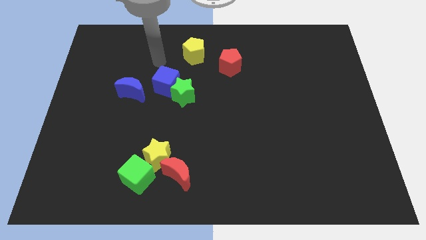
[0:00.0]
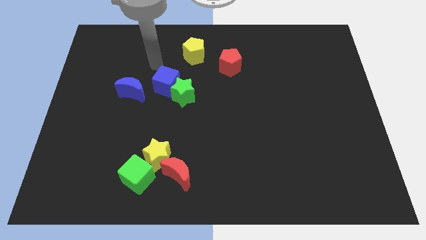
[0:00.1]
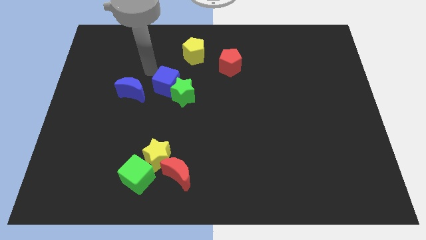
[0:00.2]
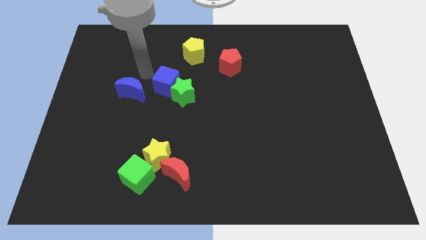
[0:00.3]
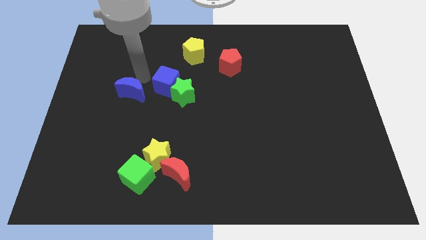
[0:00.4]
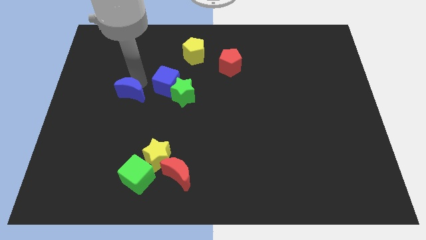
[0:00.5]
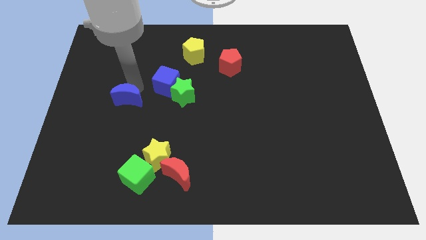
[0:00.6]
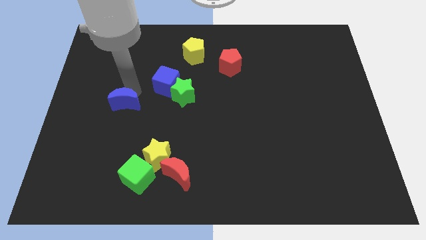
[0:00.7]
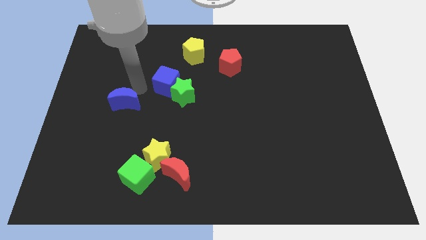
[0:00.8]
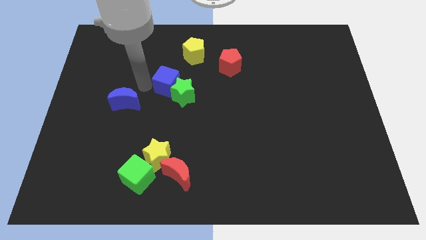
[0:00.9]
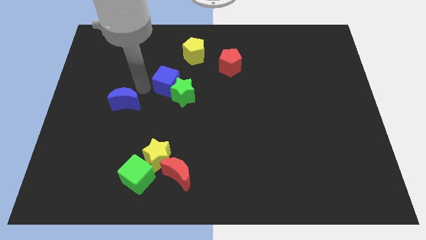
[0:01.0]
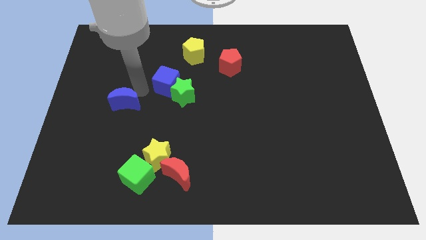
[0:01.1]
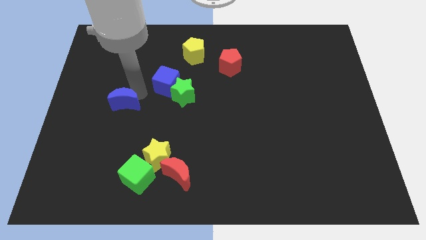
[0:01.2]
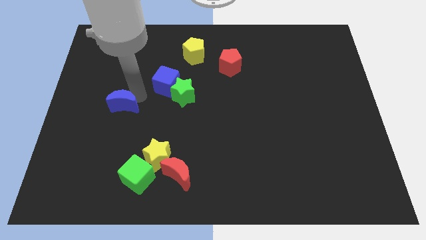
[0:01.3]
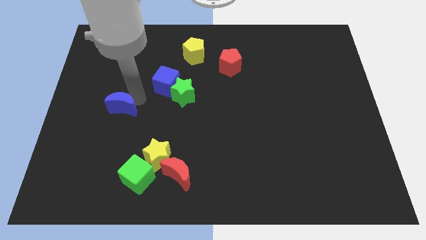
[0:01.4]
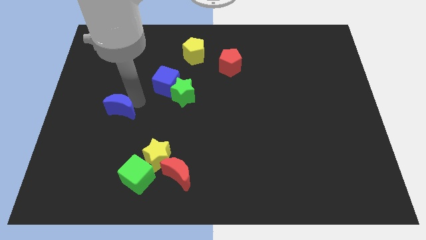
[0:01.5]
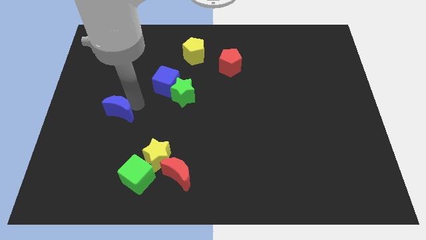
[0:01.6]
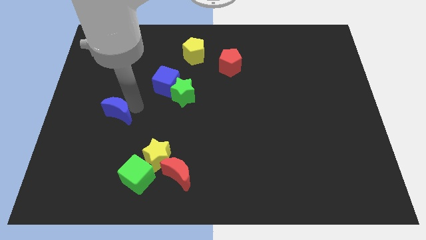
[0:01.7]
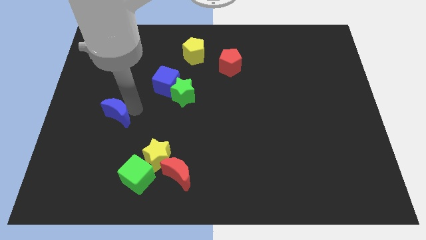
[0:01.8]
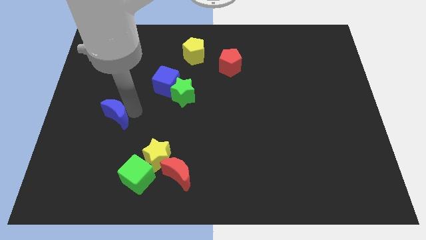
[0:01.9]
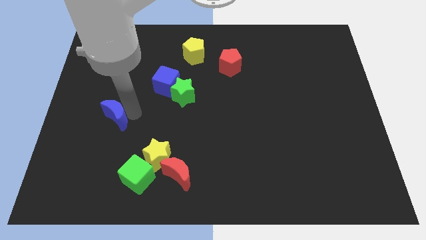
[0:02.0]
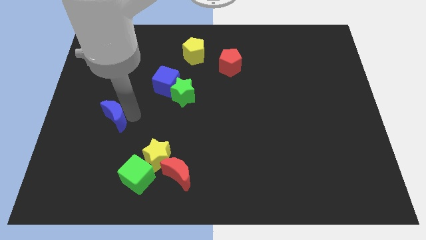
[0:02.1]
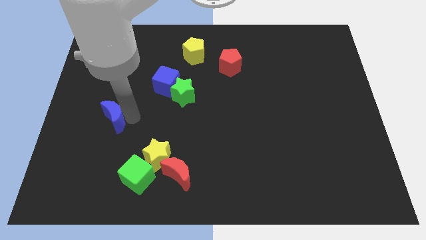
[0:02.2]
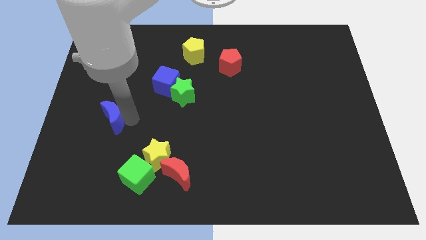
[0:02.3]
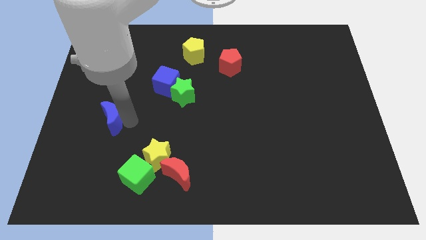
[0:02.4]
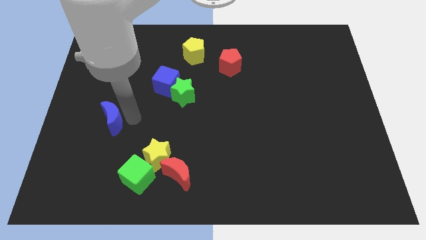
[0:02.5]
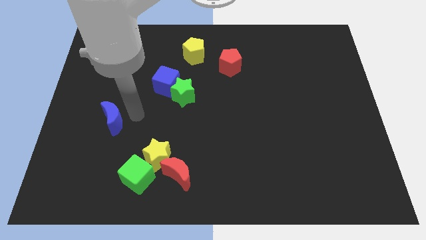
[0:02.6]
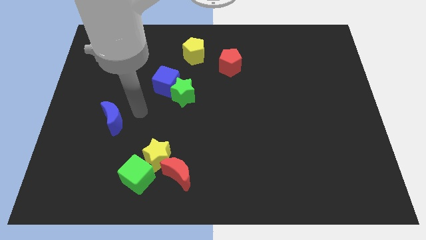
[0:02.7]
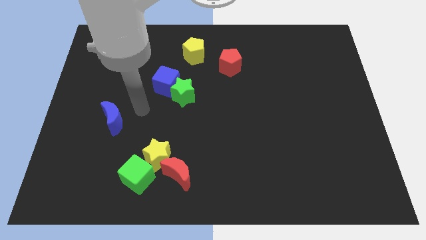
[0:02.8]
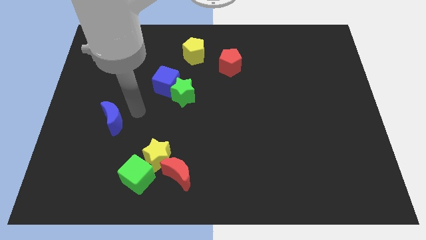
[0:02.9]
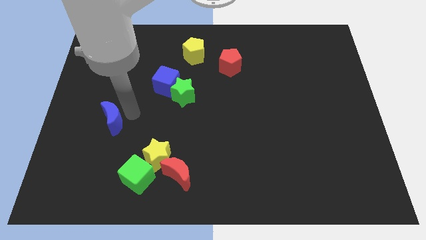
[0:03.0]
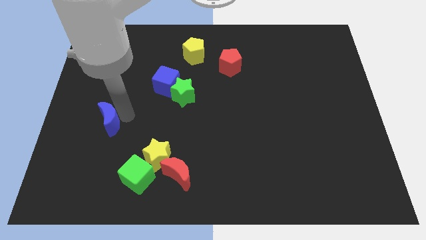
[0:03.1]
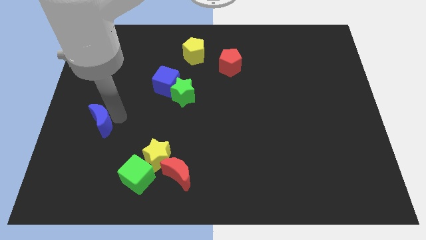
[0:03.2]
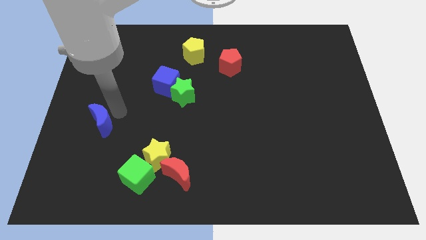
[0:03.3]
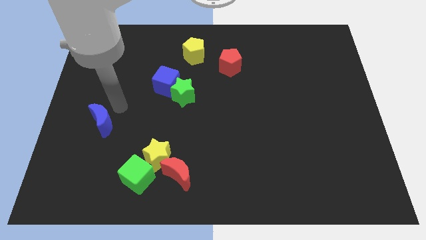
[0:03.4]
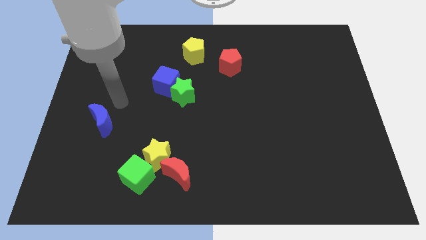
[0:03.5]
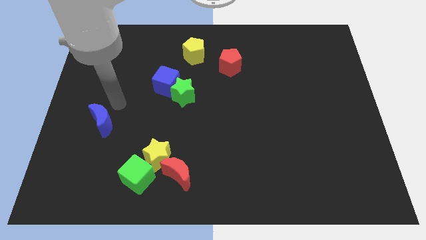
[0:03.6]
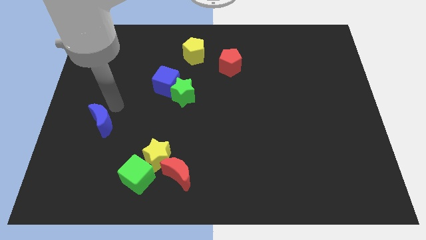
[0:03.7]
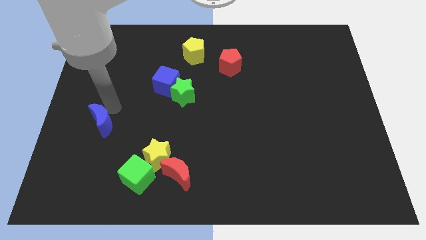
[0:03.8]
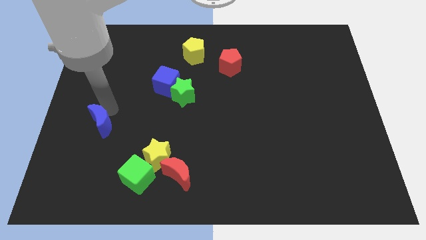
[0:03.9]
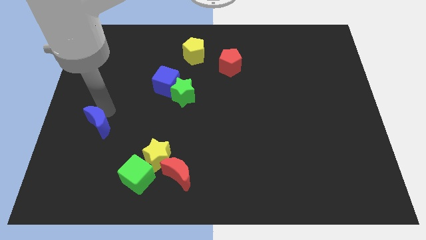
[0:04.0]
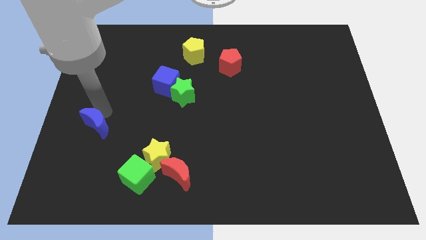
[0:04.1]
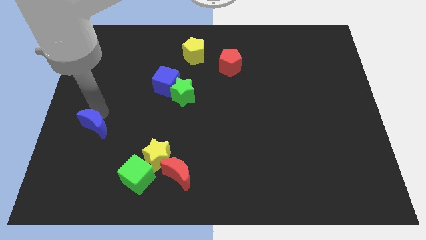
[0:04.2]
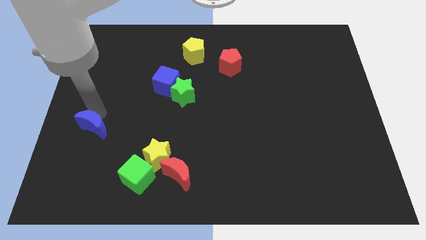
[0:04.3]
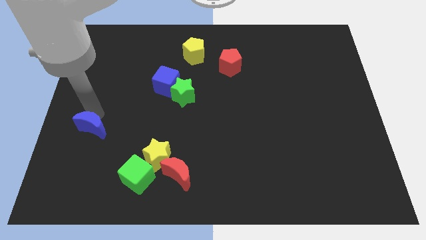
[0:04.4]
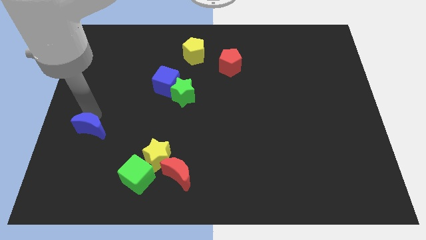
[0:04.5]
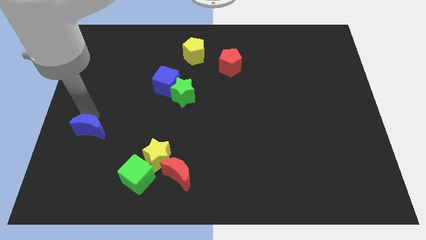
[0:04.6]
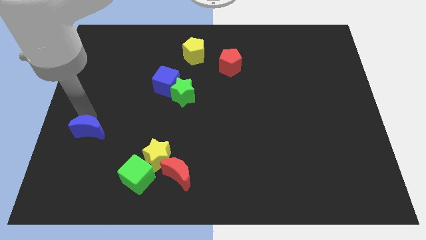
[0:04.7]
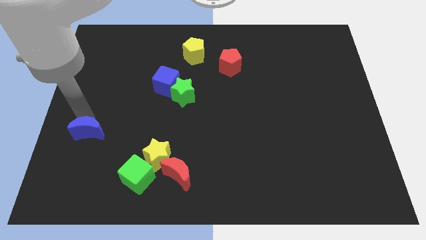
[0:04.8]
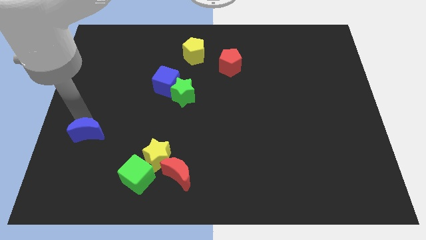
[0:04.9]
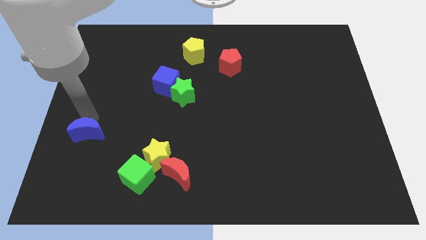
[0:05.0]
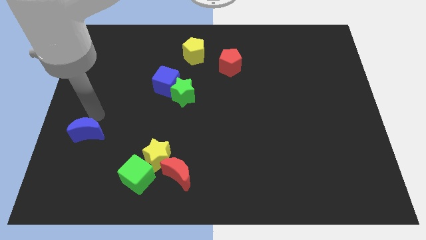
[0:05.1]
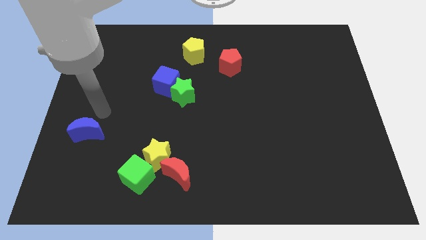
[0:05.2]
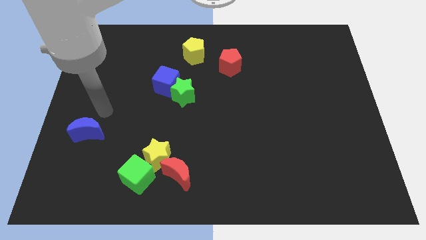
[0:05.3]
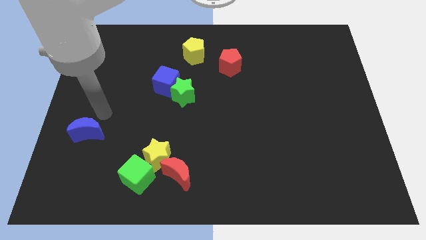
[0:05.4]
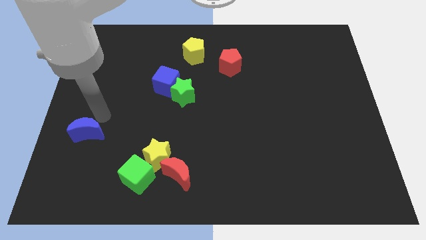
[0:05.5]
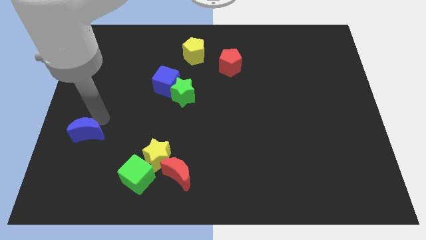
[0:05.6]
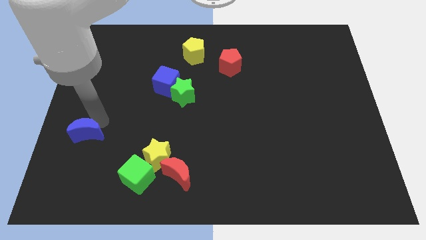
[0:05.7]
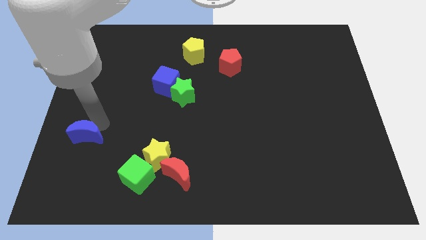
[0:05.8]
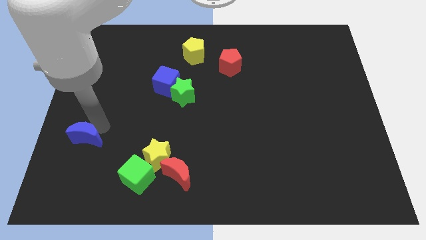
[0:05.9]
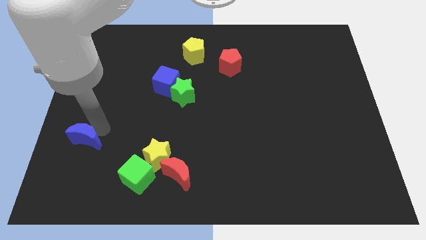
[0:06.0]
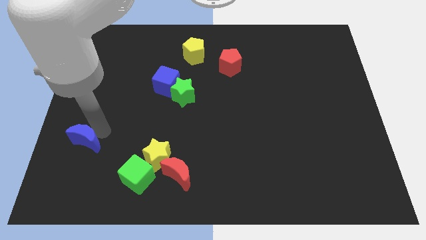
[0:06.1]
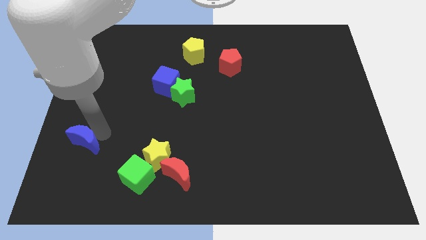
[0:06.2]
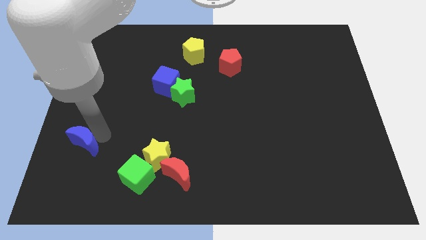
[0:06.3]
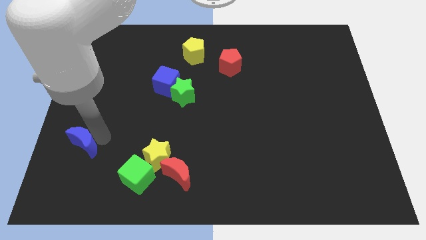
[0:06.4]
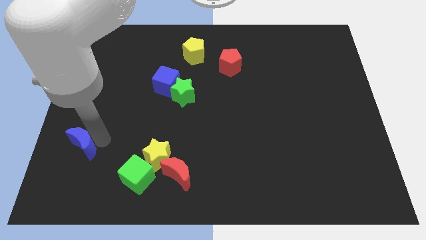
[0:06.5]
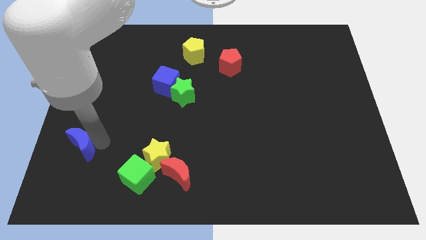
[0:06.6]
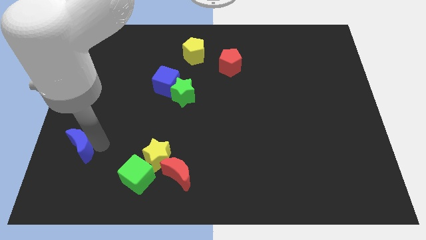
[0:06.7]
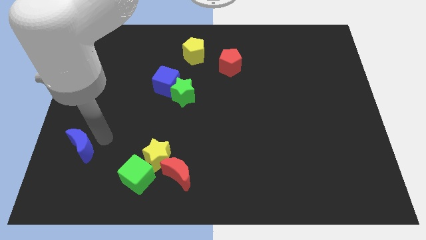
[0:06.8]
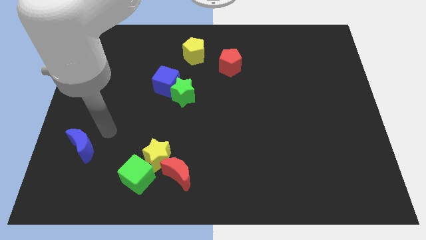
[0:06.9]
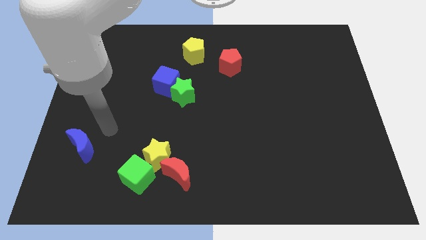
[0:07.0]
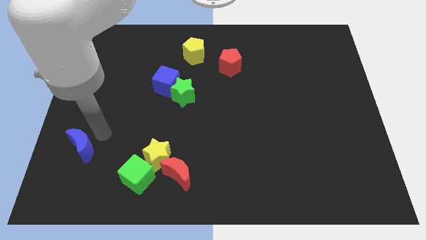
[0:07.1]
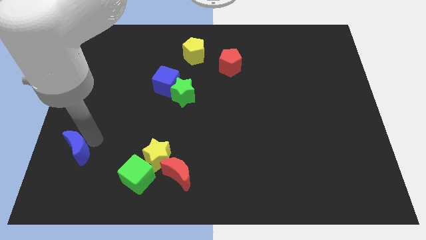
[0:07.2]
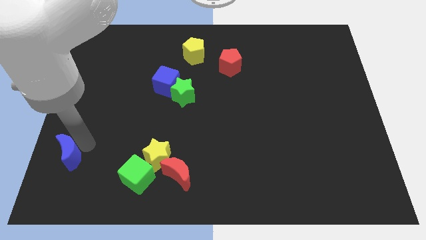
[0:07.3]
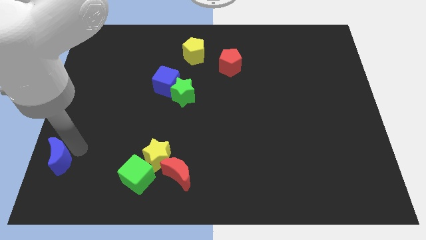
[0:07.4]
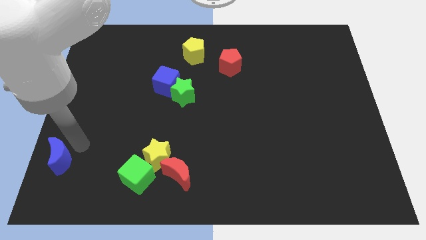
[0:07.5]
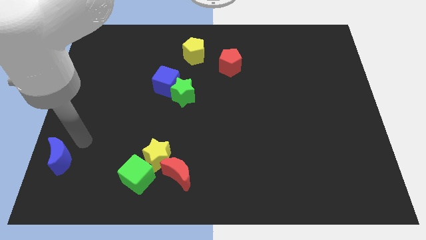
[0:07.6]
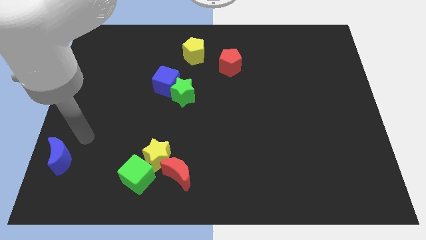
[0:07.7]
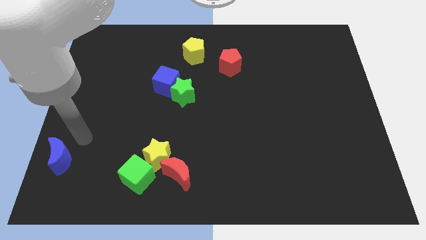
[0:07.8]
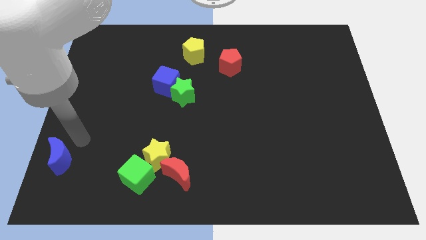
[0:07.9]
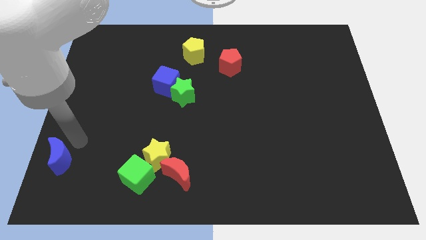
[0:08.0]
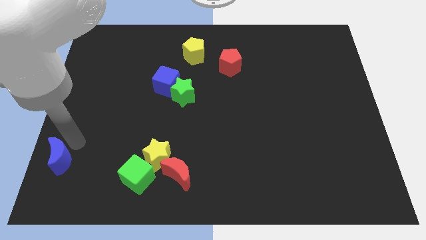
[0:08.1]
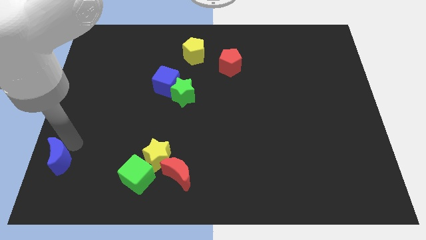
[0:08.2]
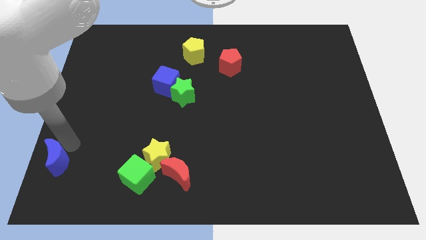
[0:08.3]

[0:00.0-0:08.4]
move the blue moon to the lower left corner
